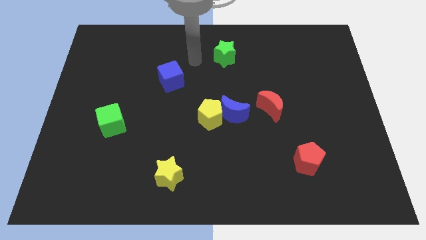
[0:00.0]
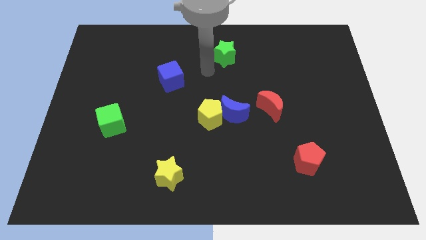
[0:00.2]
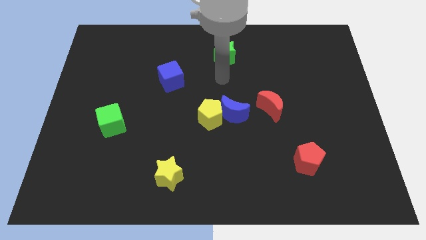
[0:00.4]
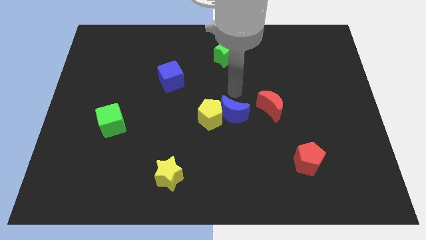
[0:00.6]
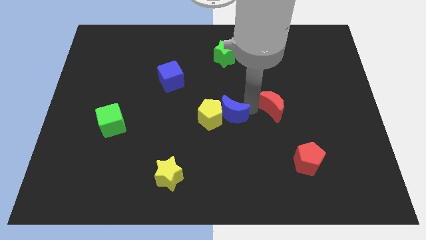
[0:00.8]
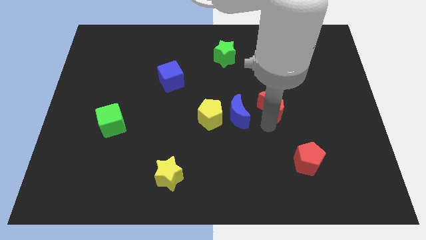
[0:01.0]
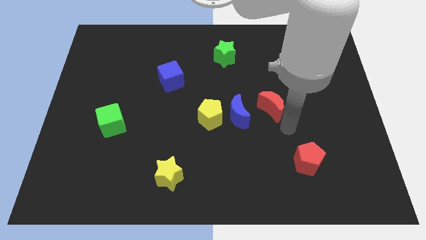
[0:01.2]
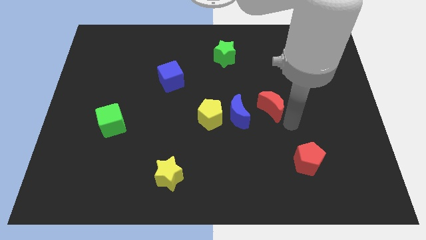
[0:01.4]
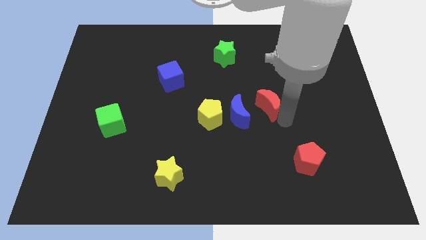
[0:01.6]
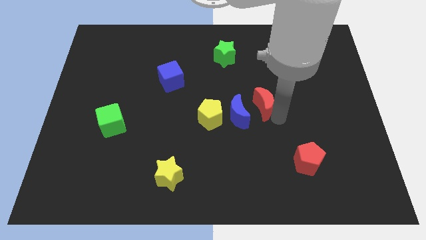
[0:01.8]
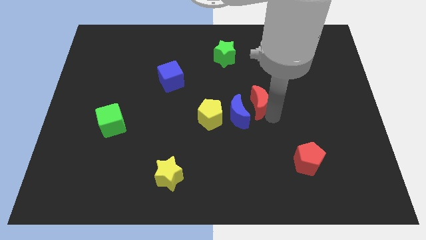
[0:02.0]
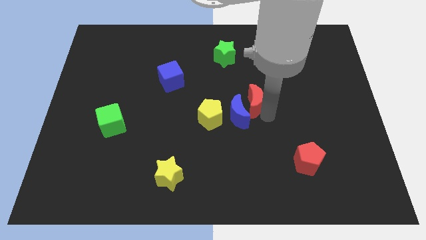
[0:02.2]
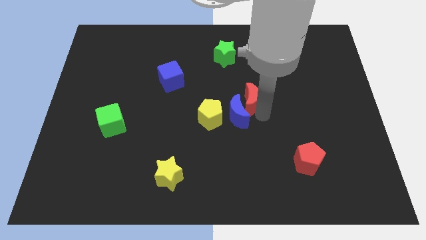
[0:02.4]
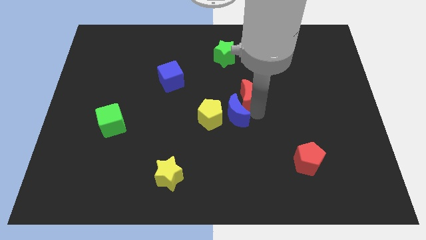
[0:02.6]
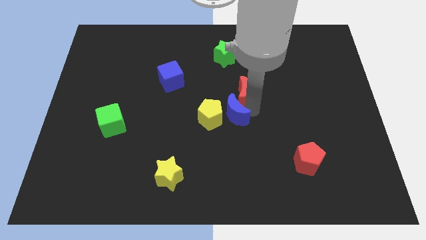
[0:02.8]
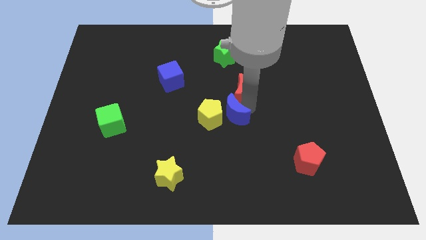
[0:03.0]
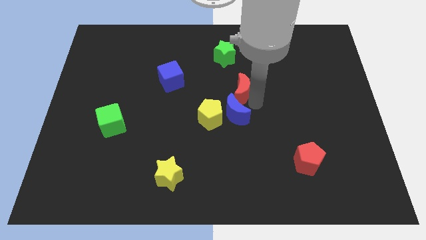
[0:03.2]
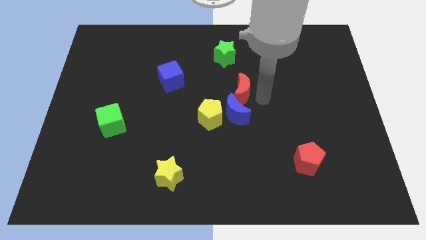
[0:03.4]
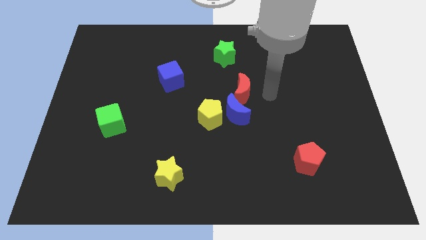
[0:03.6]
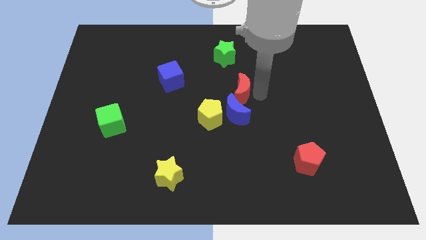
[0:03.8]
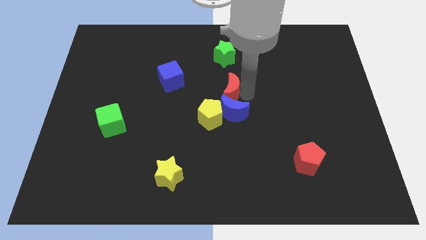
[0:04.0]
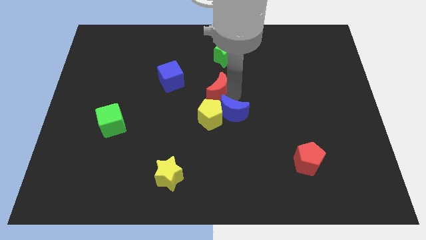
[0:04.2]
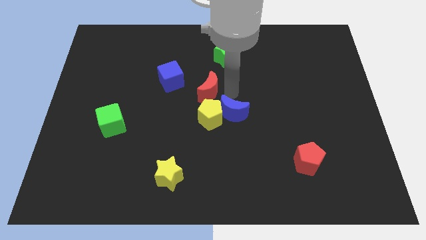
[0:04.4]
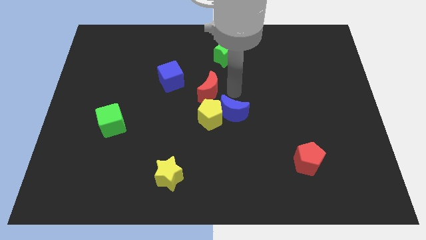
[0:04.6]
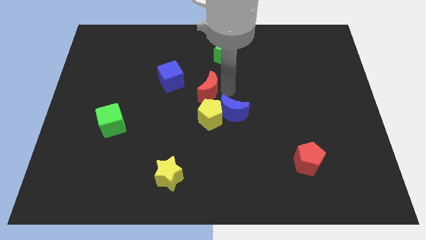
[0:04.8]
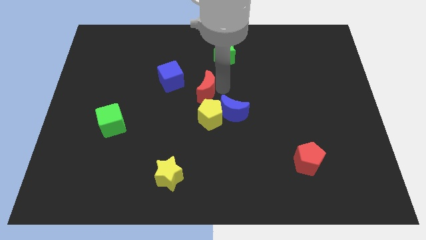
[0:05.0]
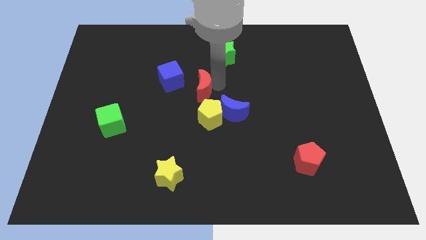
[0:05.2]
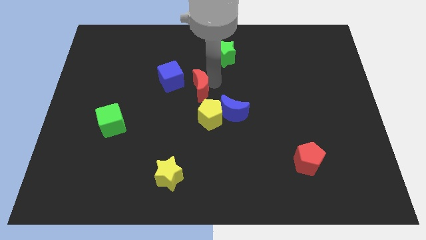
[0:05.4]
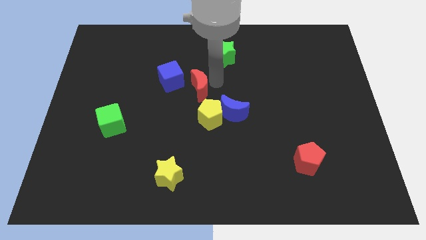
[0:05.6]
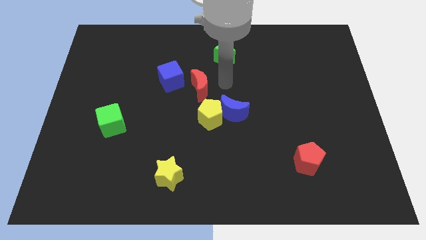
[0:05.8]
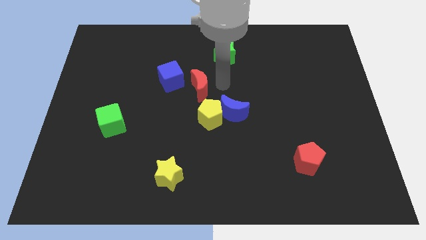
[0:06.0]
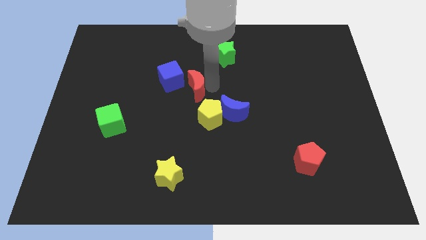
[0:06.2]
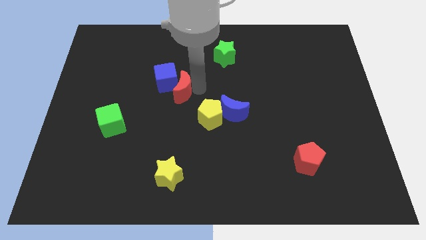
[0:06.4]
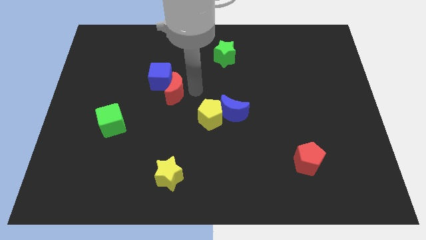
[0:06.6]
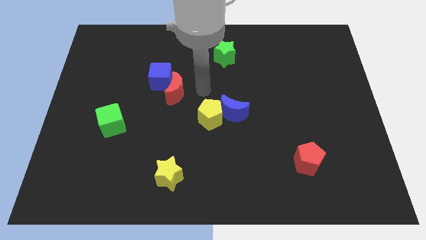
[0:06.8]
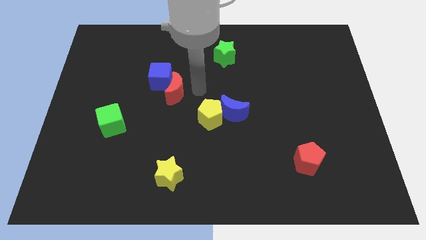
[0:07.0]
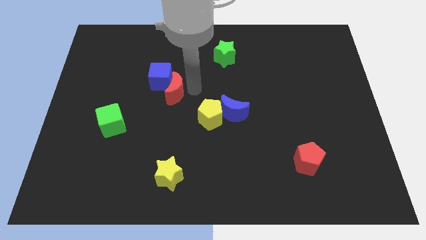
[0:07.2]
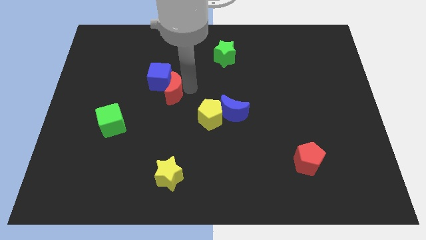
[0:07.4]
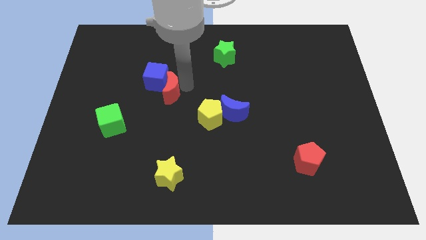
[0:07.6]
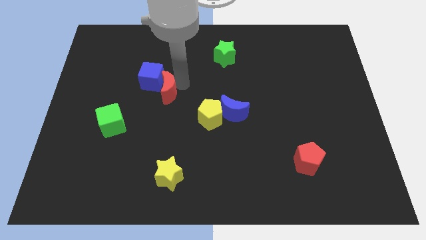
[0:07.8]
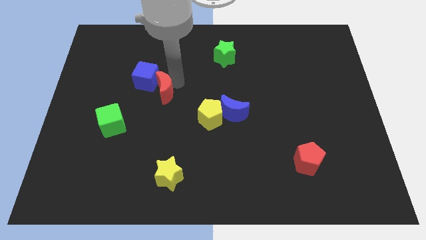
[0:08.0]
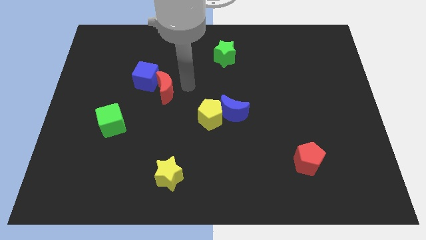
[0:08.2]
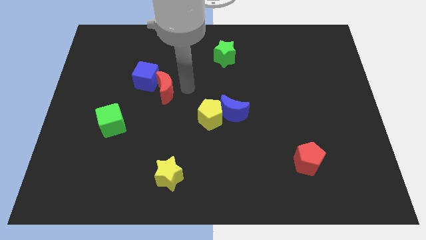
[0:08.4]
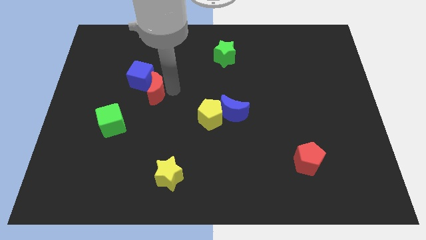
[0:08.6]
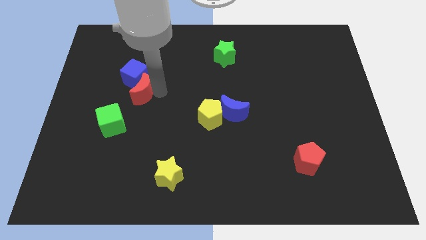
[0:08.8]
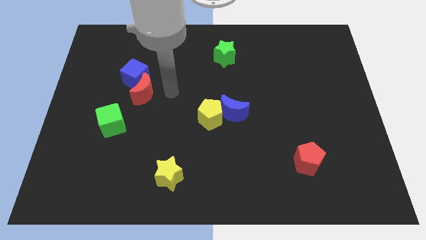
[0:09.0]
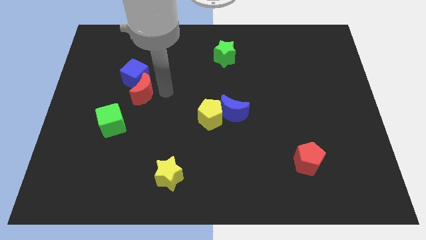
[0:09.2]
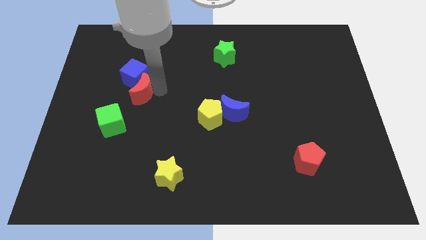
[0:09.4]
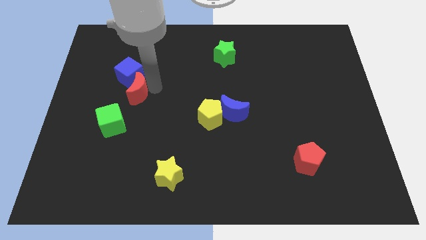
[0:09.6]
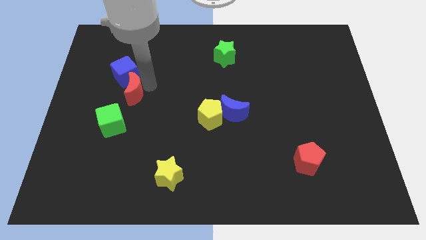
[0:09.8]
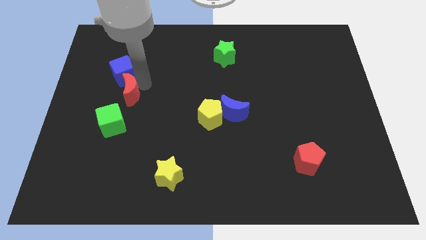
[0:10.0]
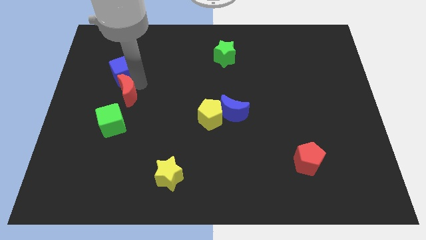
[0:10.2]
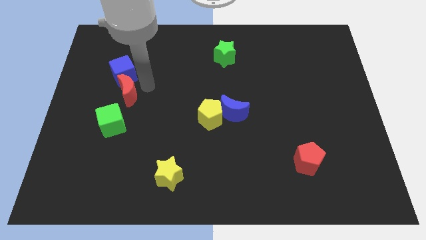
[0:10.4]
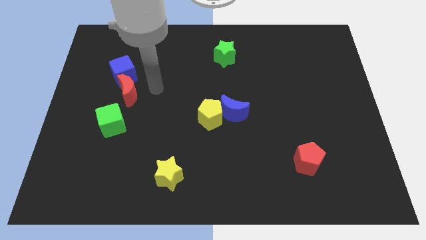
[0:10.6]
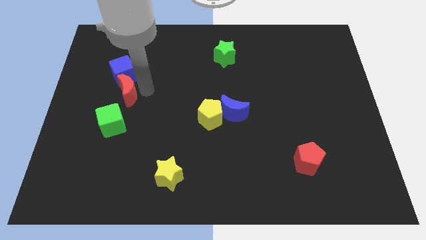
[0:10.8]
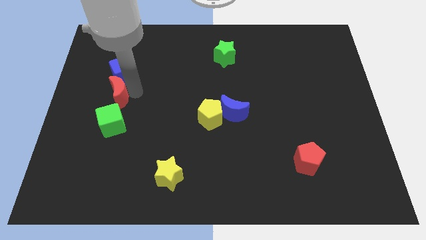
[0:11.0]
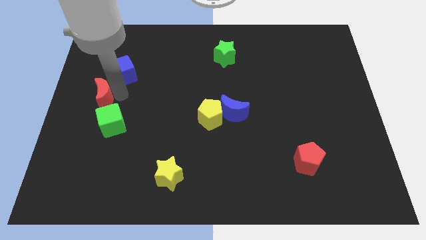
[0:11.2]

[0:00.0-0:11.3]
push the red moon to the left side of the board
